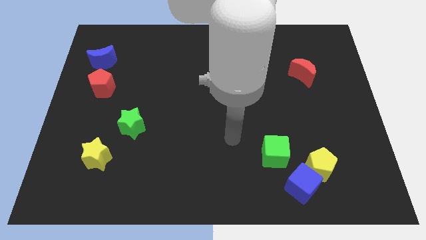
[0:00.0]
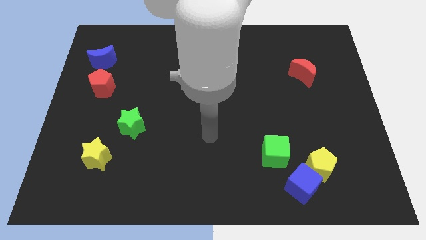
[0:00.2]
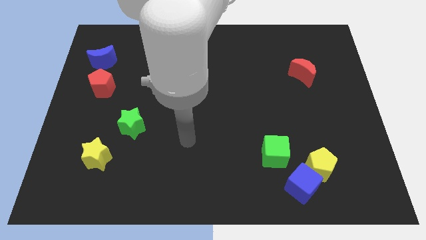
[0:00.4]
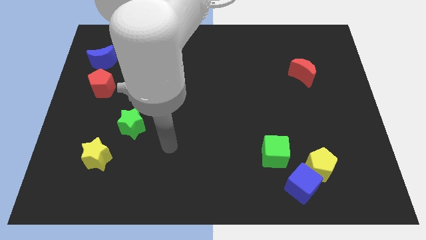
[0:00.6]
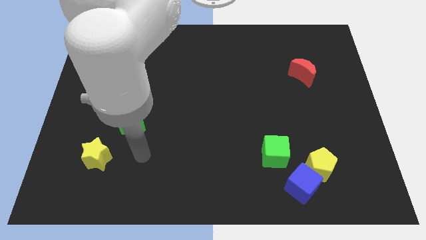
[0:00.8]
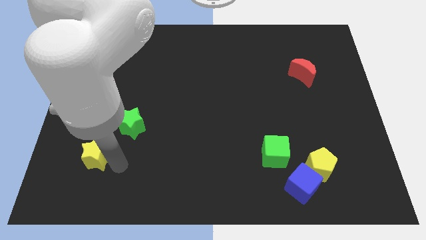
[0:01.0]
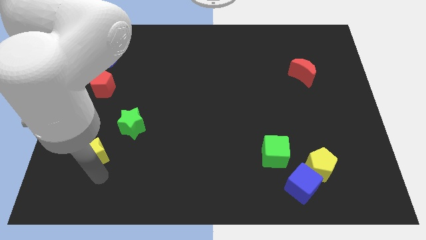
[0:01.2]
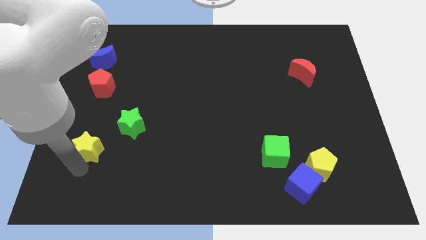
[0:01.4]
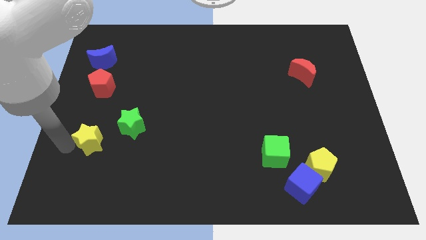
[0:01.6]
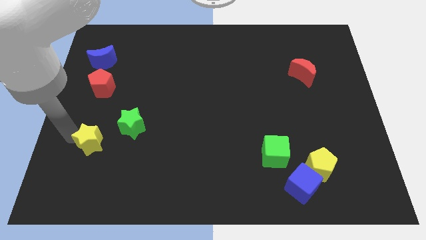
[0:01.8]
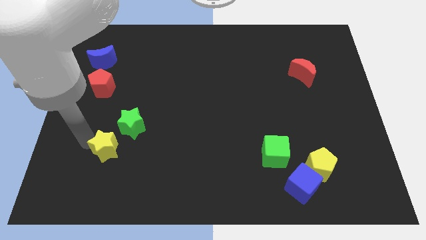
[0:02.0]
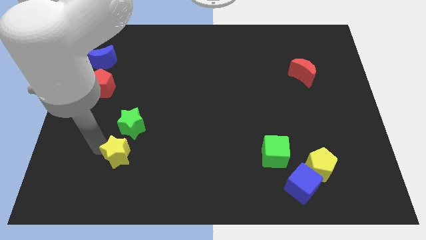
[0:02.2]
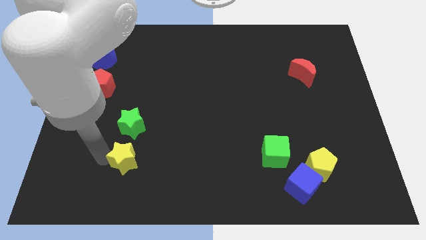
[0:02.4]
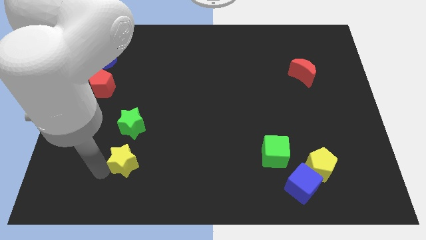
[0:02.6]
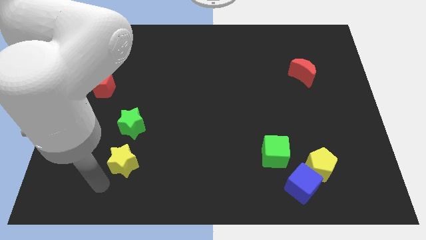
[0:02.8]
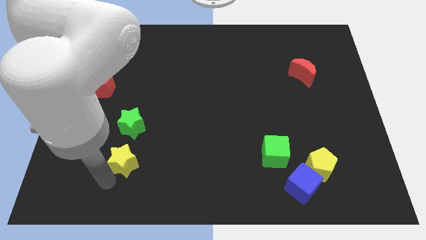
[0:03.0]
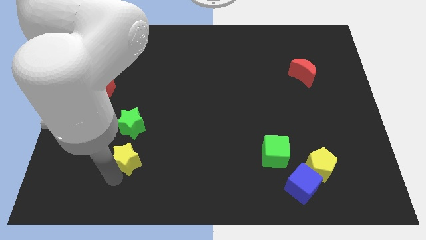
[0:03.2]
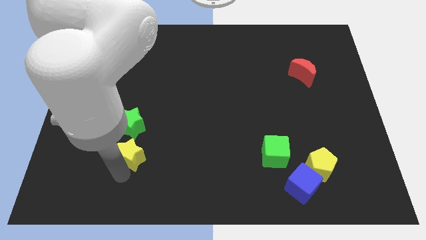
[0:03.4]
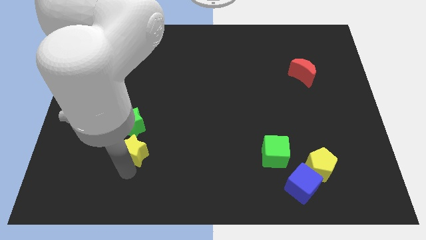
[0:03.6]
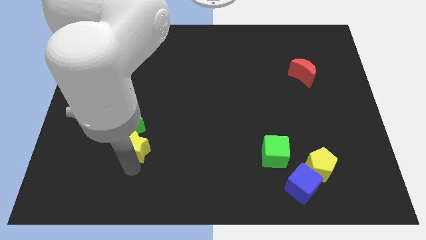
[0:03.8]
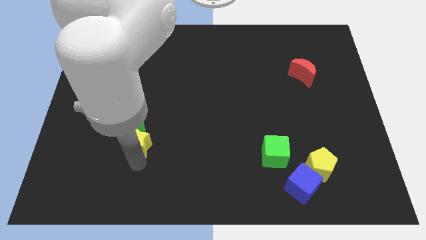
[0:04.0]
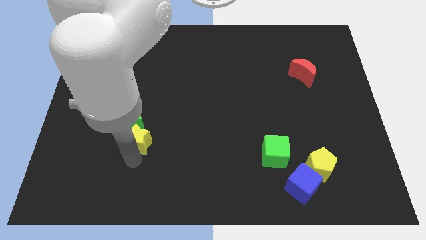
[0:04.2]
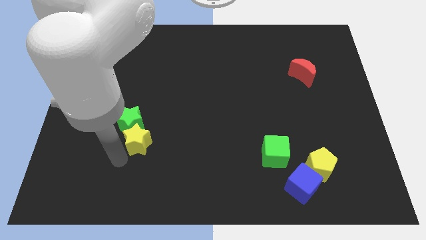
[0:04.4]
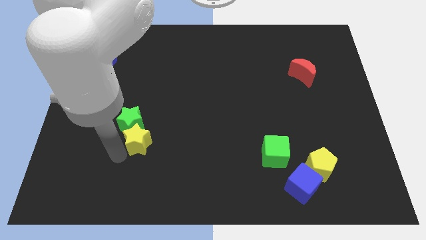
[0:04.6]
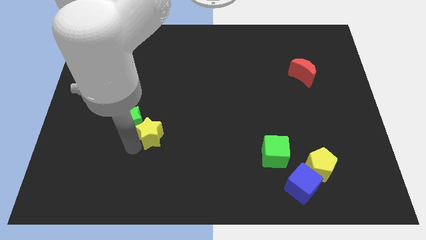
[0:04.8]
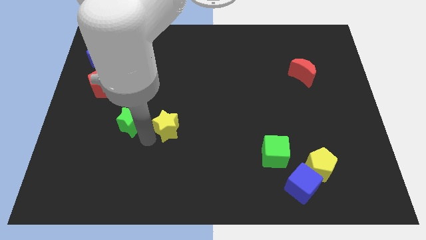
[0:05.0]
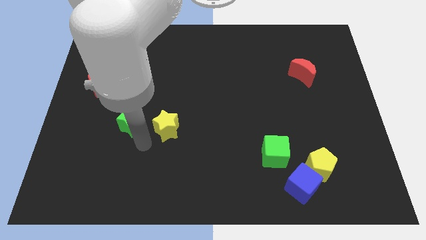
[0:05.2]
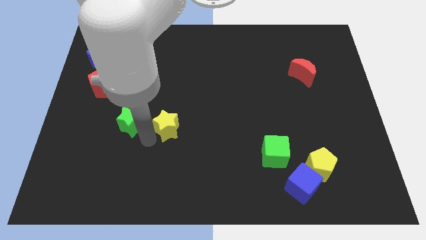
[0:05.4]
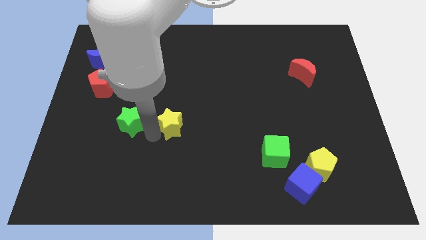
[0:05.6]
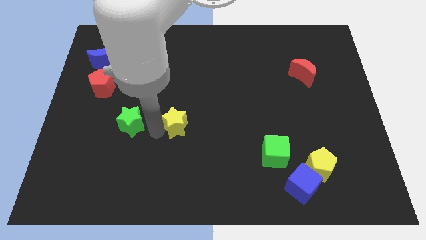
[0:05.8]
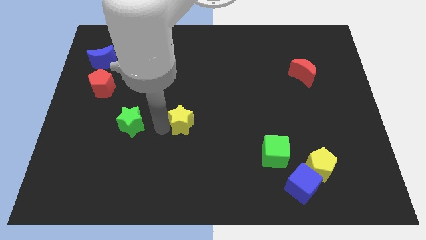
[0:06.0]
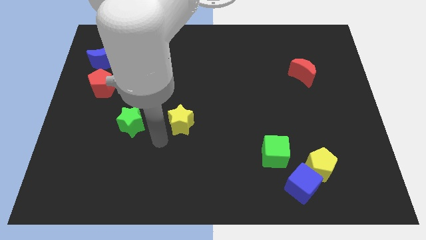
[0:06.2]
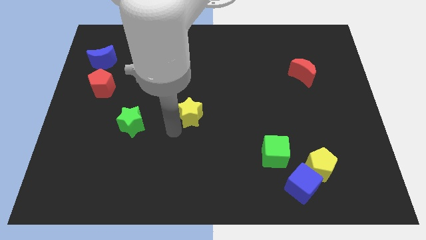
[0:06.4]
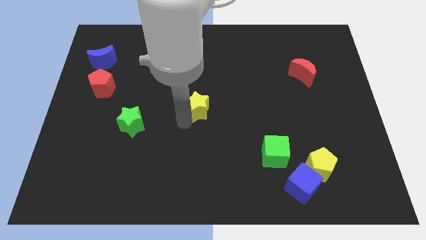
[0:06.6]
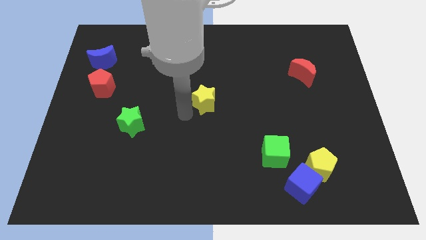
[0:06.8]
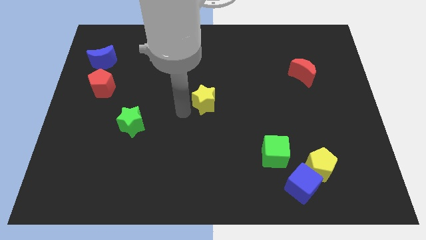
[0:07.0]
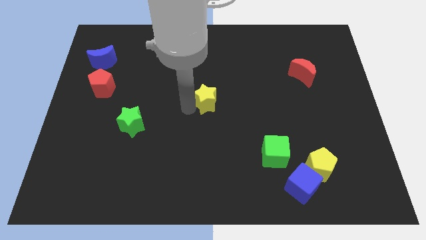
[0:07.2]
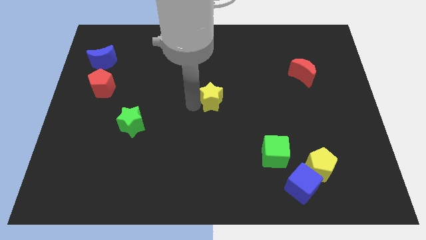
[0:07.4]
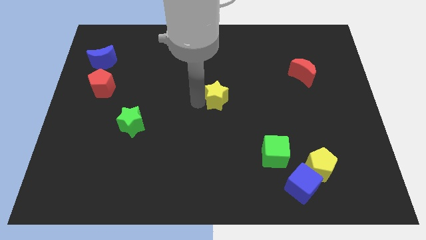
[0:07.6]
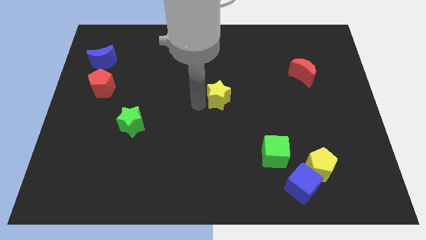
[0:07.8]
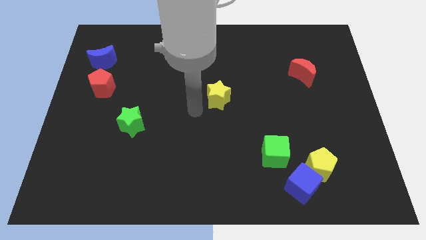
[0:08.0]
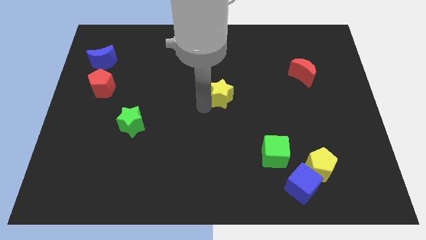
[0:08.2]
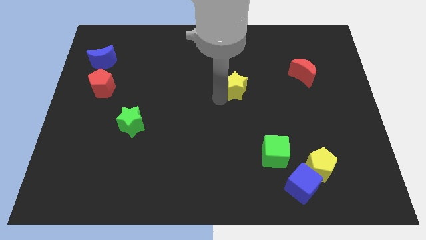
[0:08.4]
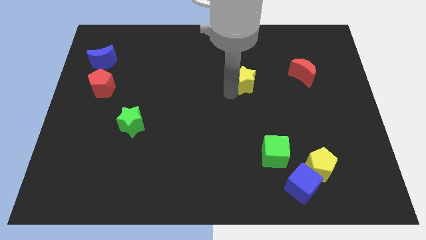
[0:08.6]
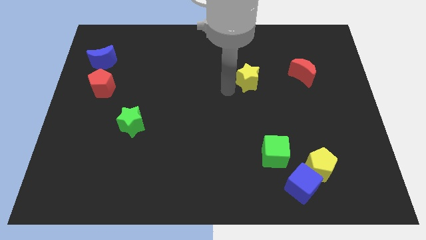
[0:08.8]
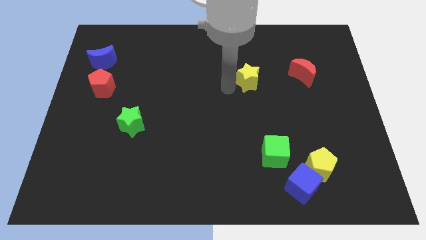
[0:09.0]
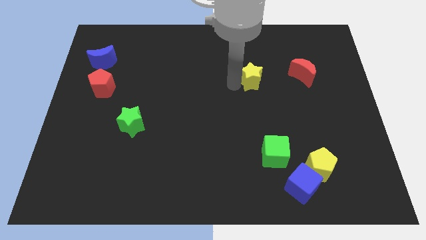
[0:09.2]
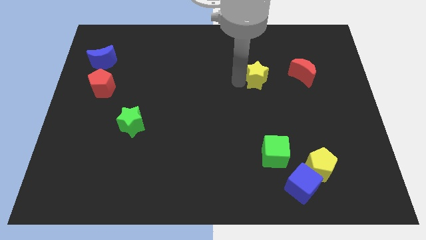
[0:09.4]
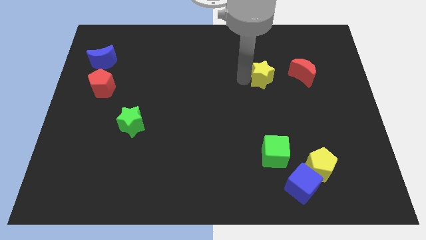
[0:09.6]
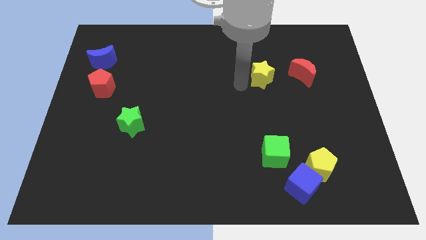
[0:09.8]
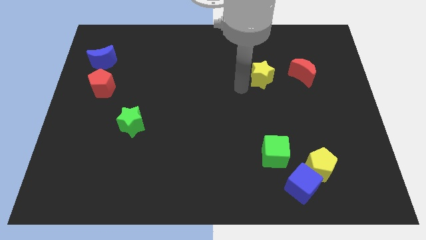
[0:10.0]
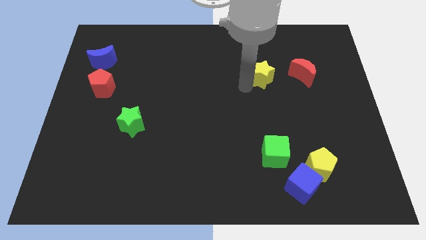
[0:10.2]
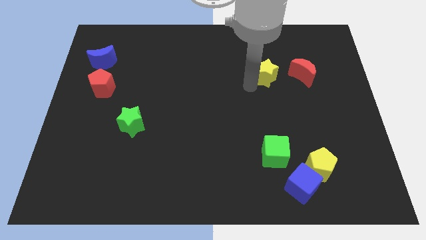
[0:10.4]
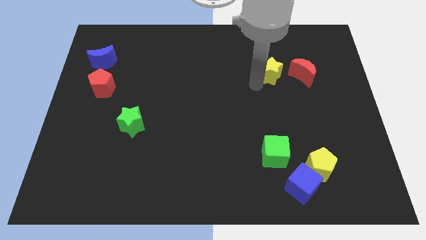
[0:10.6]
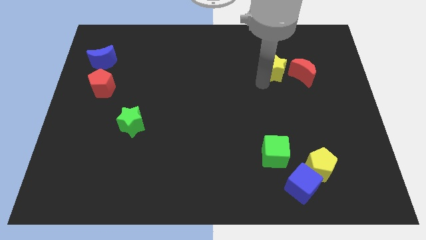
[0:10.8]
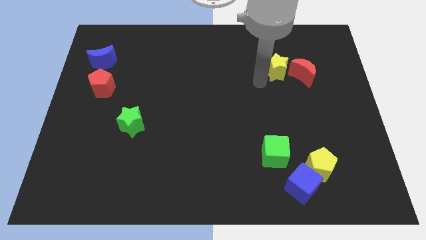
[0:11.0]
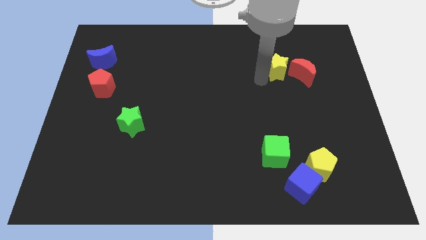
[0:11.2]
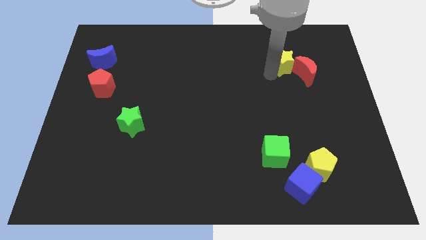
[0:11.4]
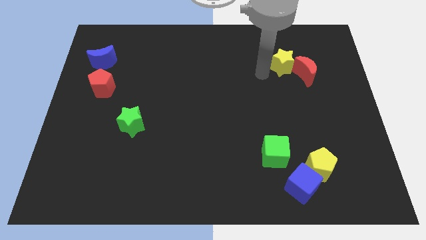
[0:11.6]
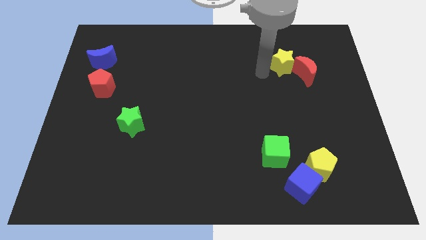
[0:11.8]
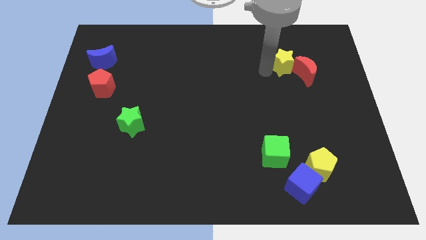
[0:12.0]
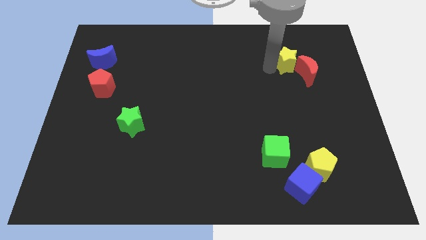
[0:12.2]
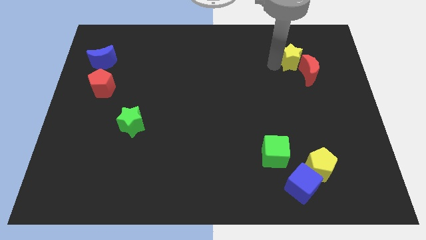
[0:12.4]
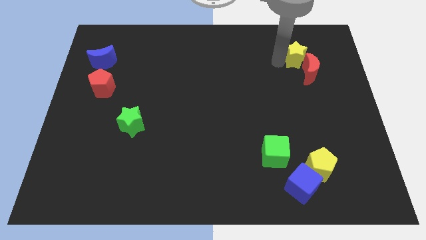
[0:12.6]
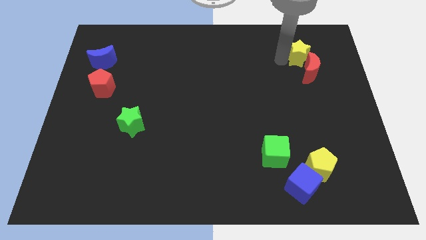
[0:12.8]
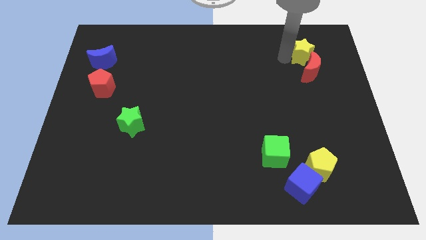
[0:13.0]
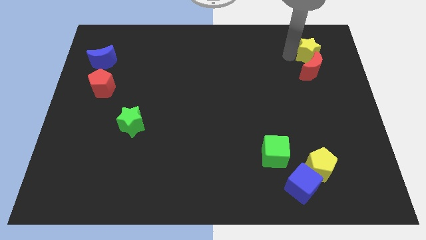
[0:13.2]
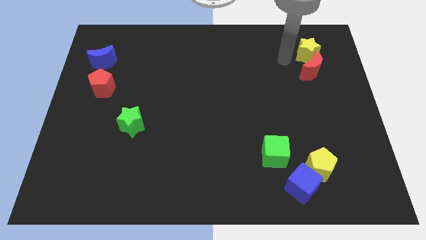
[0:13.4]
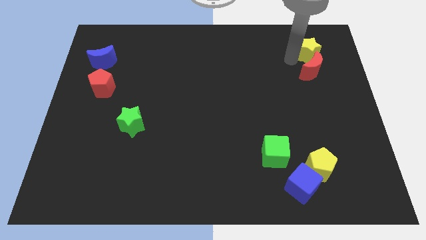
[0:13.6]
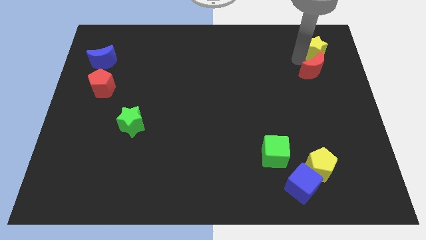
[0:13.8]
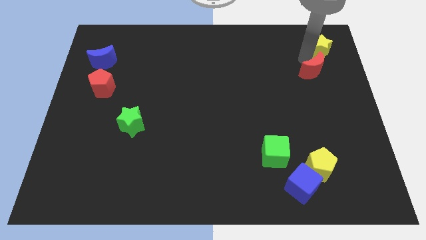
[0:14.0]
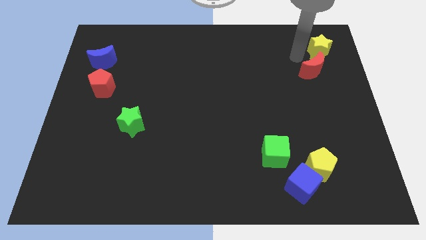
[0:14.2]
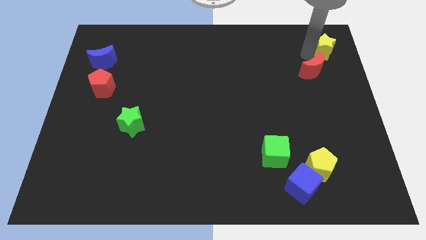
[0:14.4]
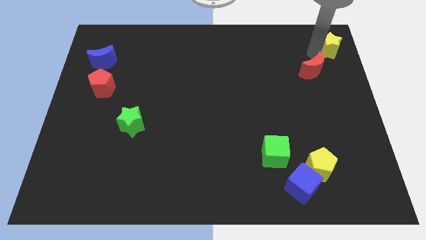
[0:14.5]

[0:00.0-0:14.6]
move the yellow star to the top right of the board
